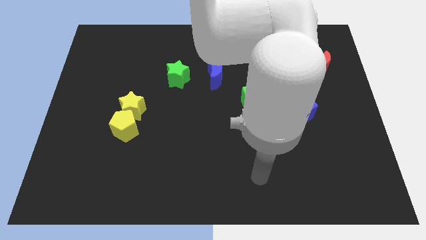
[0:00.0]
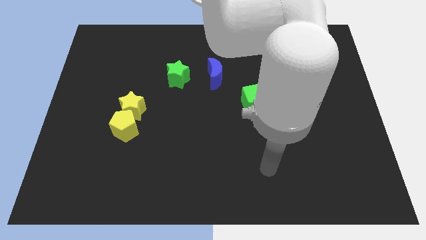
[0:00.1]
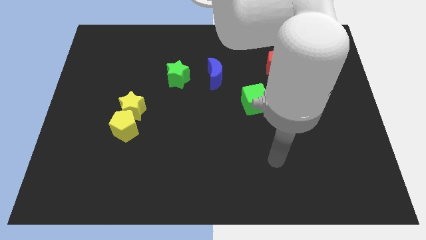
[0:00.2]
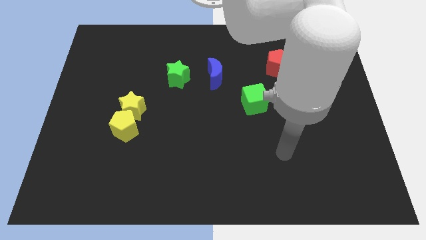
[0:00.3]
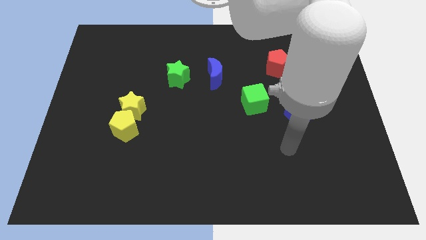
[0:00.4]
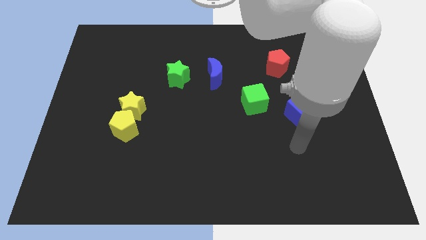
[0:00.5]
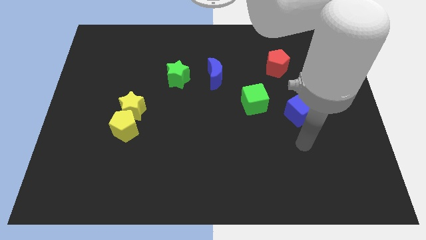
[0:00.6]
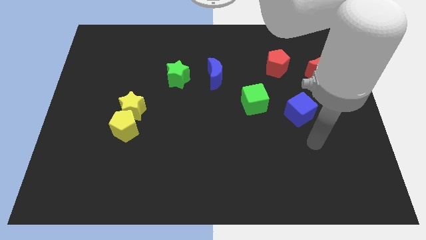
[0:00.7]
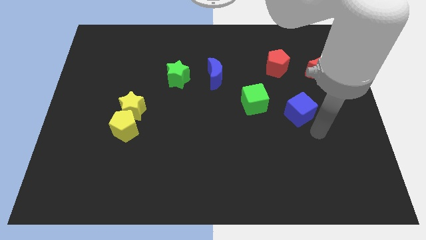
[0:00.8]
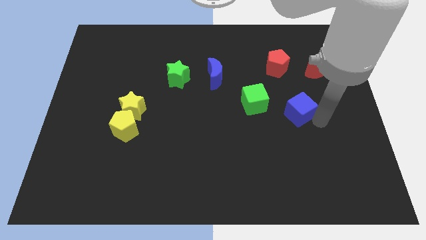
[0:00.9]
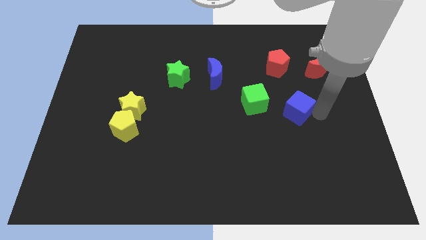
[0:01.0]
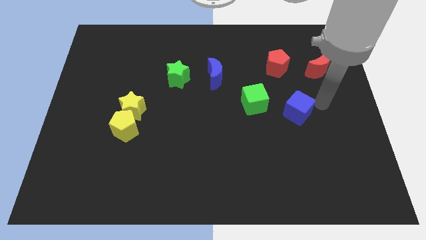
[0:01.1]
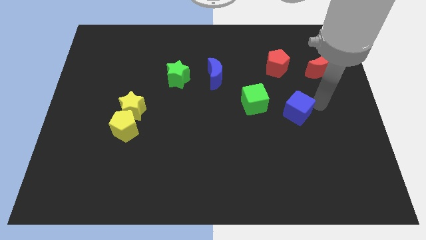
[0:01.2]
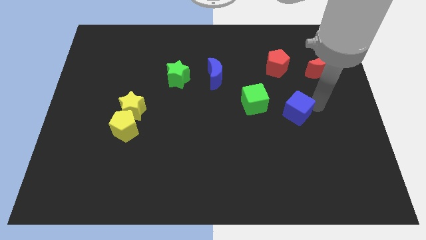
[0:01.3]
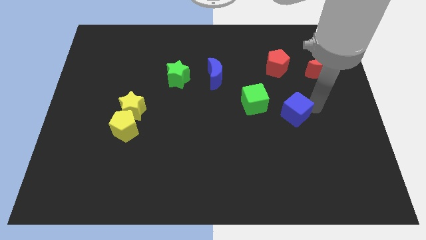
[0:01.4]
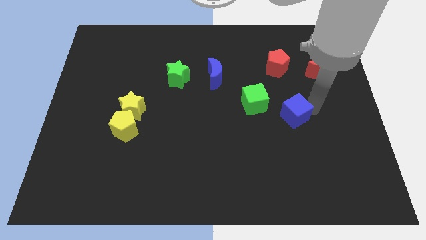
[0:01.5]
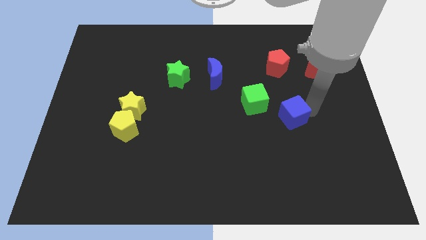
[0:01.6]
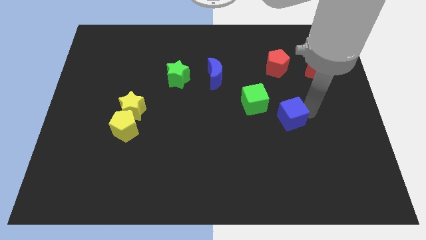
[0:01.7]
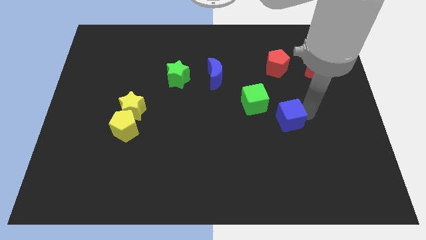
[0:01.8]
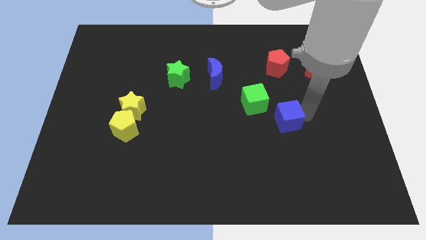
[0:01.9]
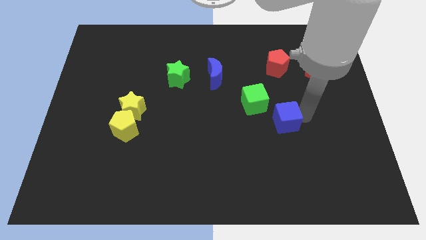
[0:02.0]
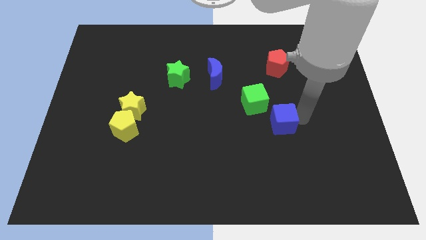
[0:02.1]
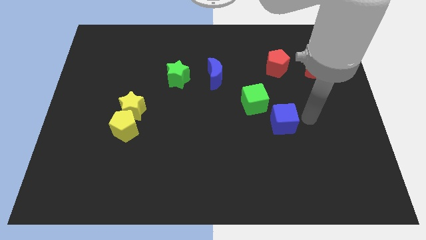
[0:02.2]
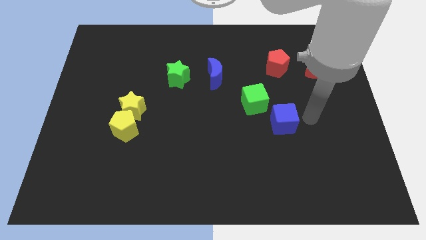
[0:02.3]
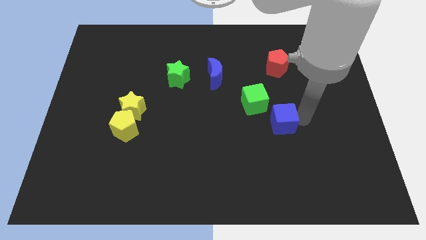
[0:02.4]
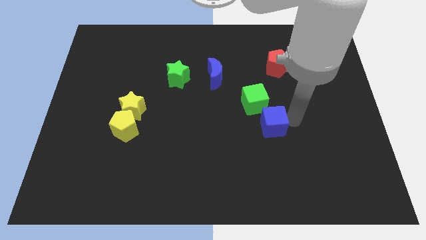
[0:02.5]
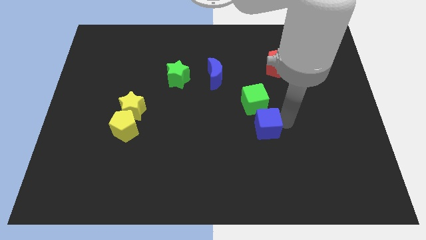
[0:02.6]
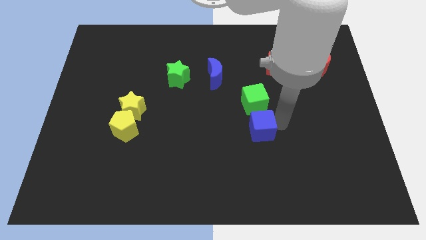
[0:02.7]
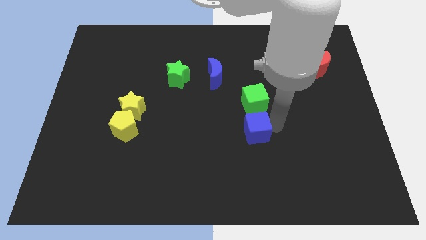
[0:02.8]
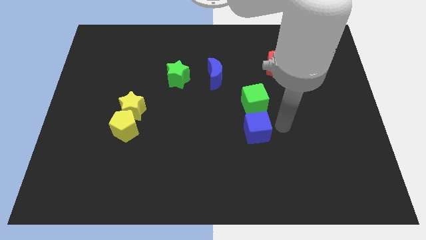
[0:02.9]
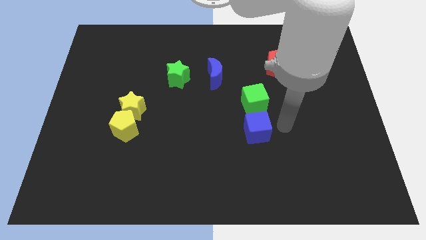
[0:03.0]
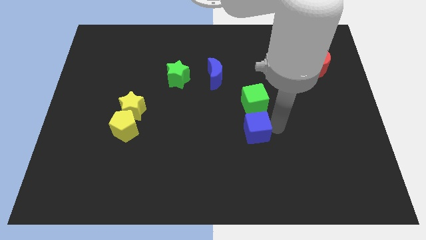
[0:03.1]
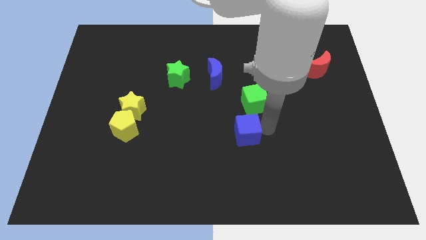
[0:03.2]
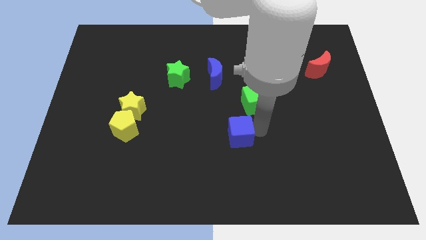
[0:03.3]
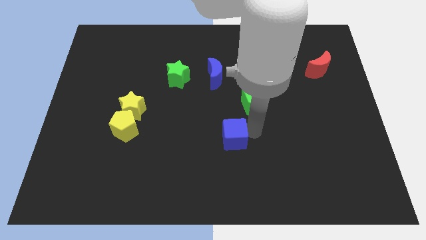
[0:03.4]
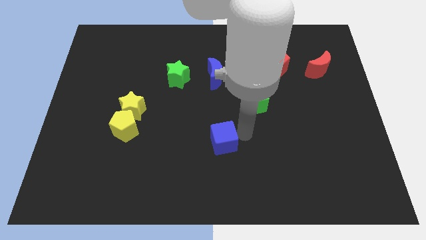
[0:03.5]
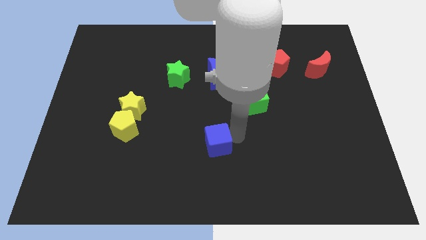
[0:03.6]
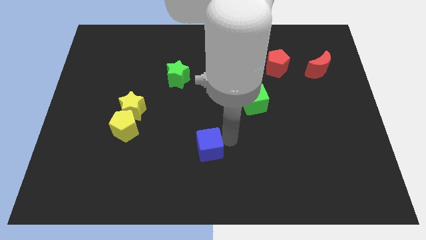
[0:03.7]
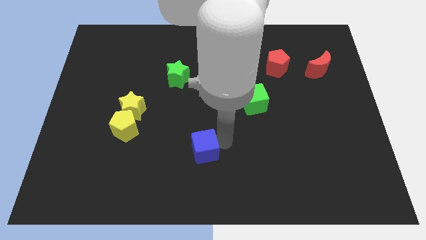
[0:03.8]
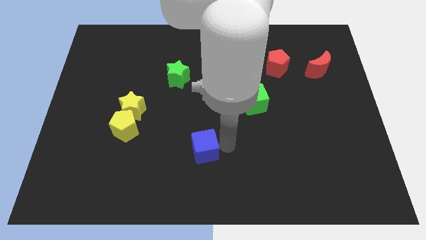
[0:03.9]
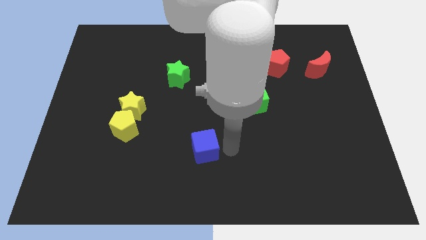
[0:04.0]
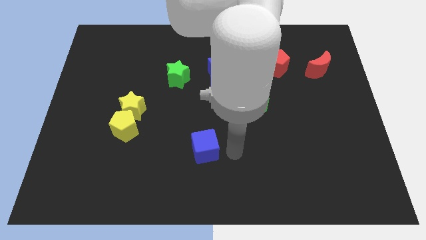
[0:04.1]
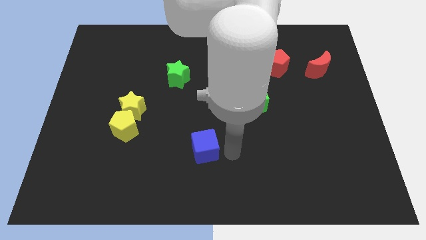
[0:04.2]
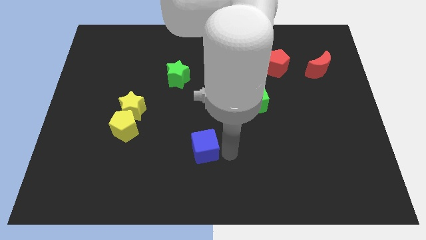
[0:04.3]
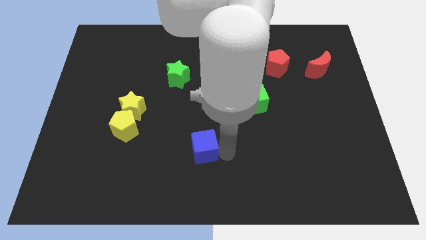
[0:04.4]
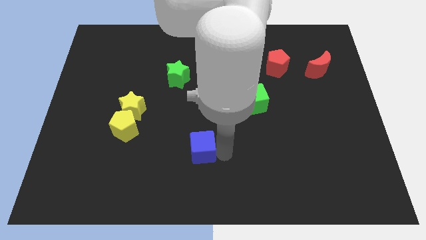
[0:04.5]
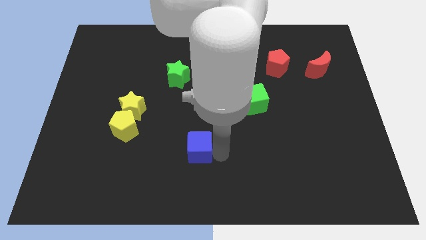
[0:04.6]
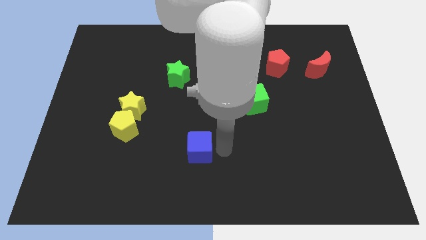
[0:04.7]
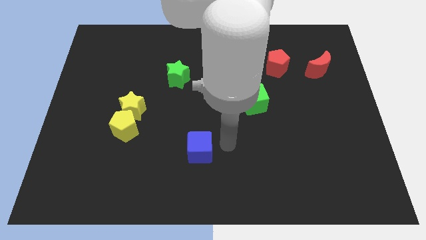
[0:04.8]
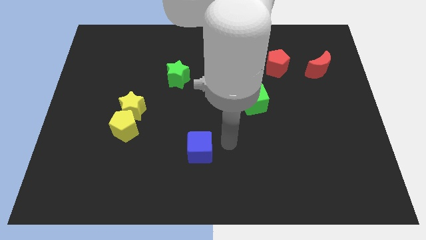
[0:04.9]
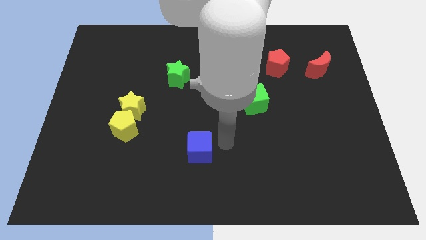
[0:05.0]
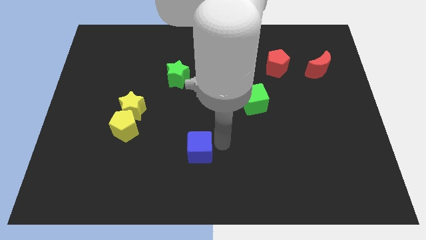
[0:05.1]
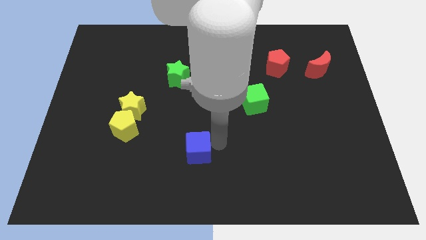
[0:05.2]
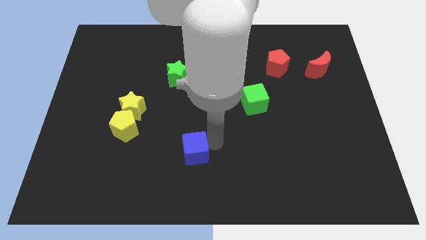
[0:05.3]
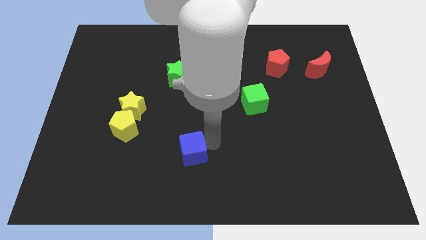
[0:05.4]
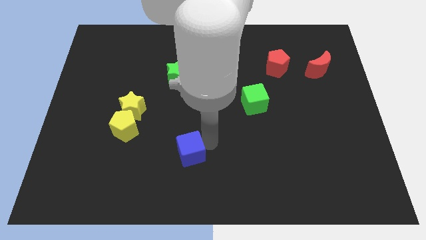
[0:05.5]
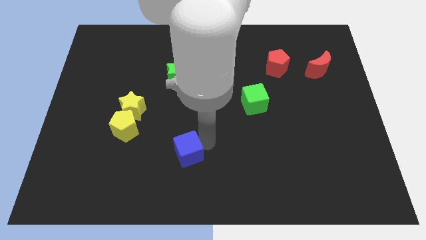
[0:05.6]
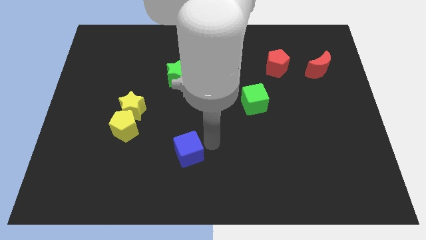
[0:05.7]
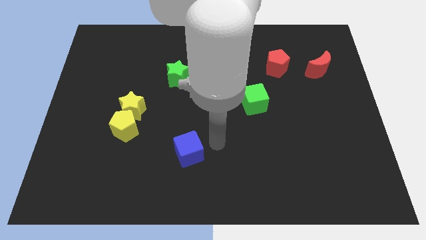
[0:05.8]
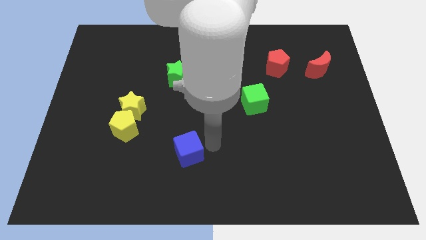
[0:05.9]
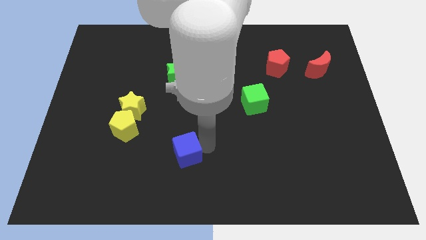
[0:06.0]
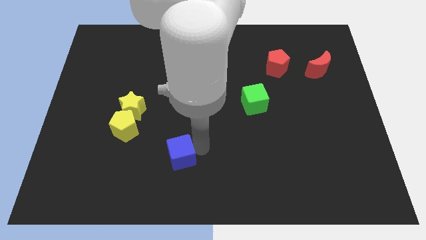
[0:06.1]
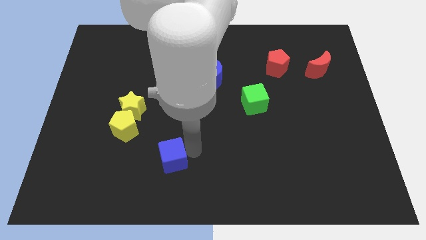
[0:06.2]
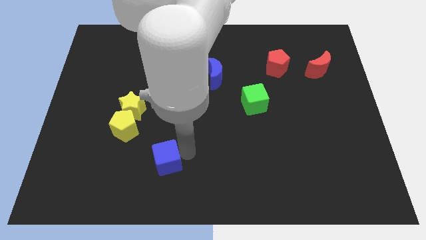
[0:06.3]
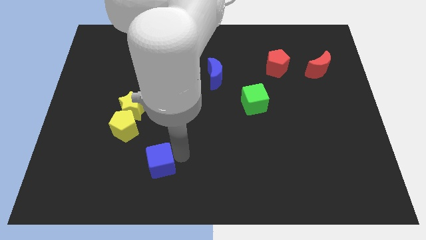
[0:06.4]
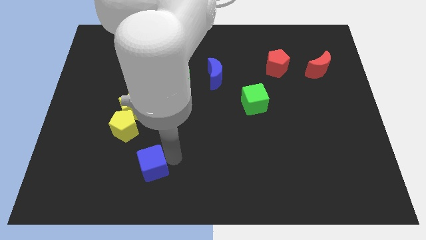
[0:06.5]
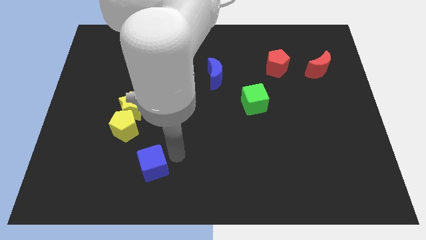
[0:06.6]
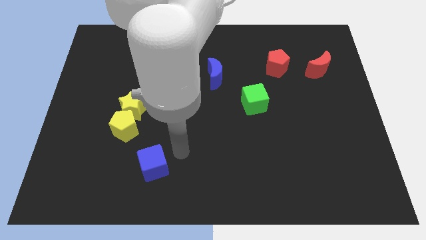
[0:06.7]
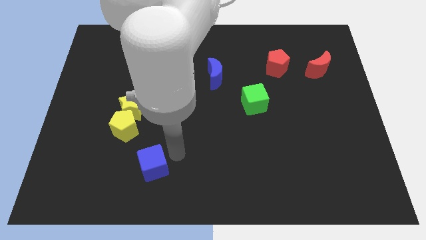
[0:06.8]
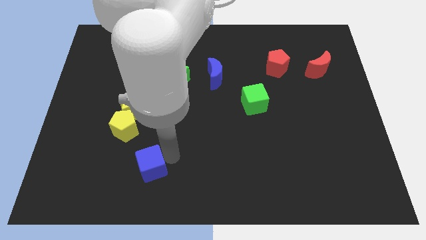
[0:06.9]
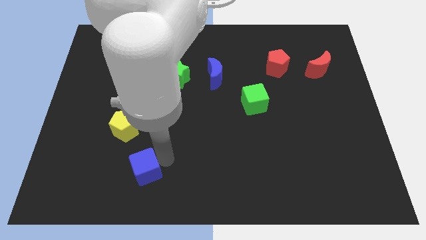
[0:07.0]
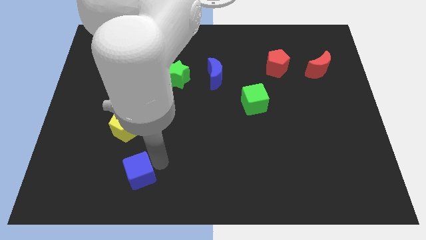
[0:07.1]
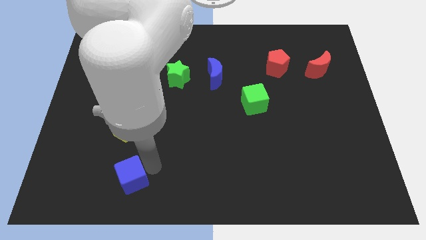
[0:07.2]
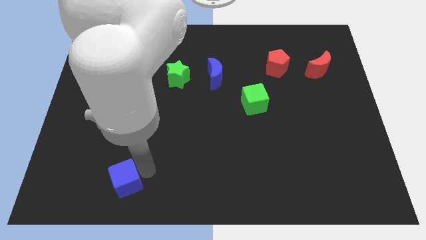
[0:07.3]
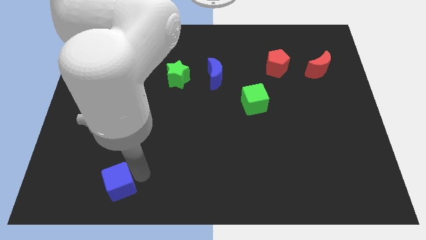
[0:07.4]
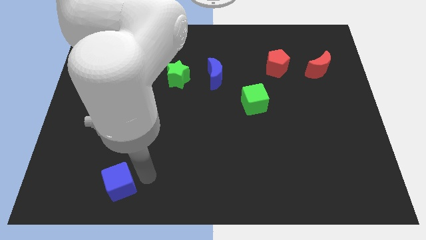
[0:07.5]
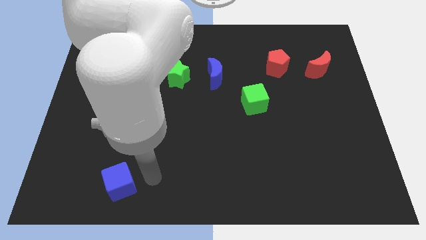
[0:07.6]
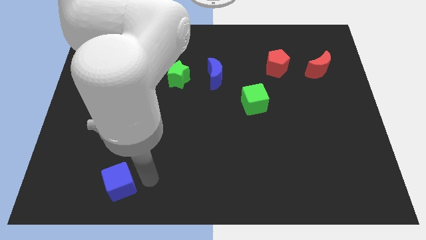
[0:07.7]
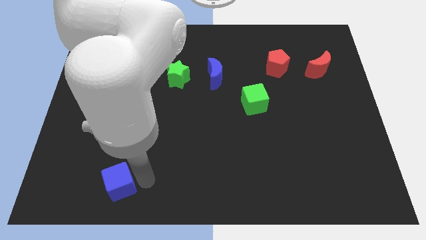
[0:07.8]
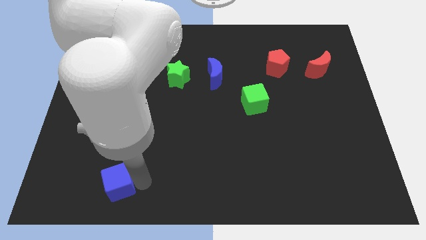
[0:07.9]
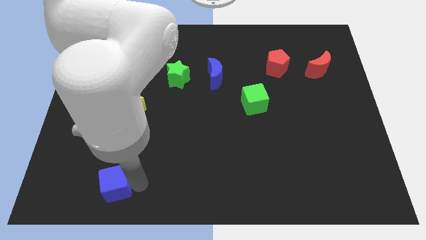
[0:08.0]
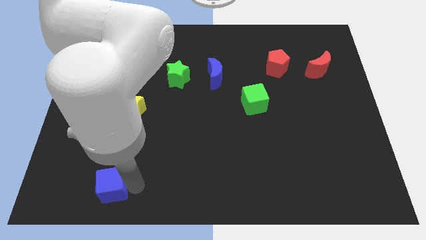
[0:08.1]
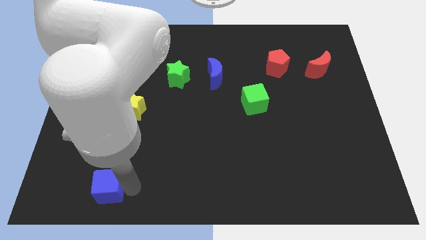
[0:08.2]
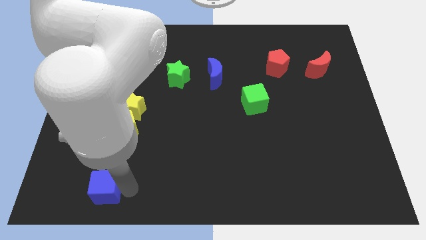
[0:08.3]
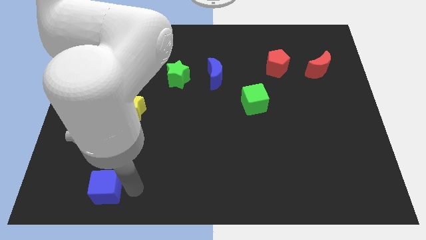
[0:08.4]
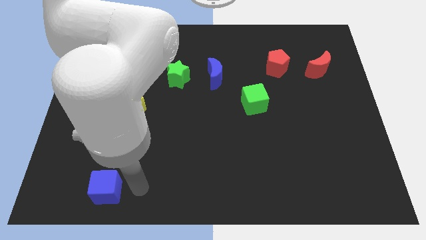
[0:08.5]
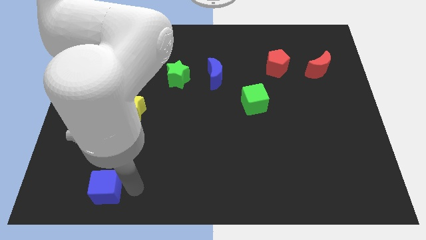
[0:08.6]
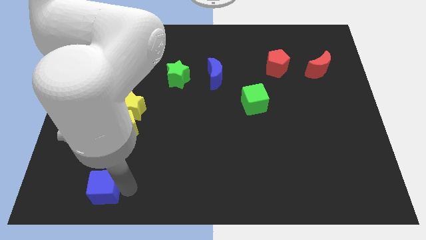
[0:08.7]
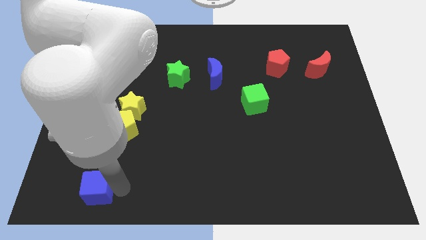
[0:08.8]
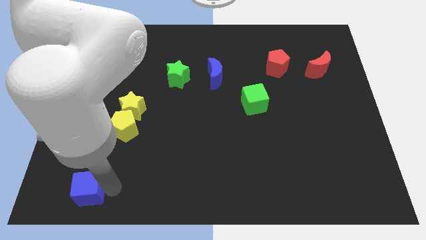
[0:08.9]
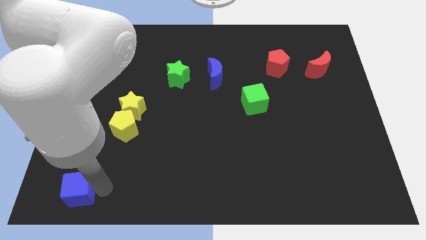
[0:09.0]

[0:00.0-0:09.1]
move the blue cube to the bottom left corner
